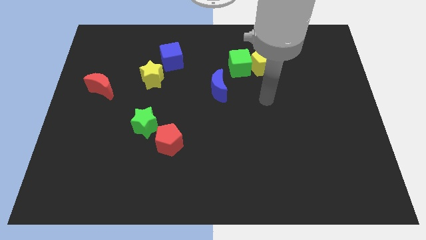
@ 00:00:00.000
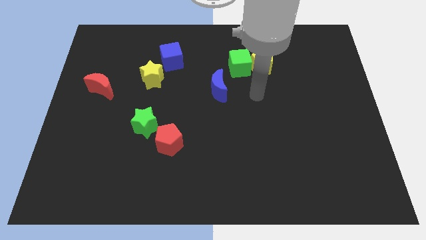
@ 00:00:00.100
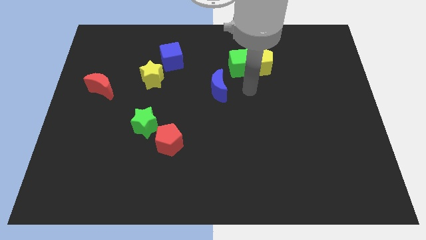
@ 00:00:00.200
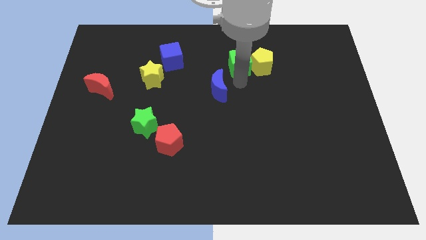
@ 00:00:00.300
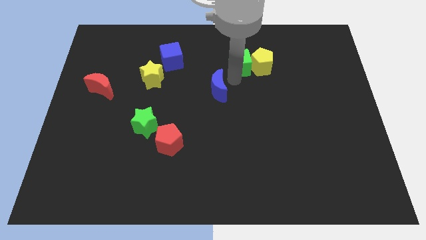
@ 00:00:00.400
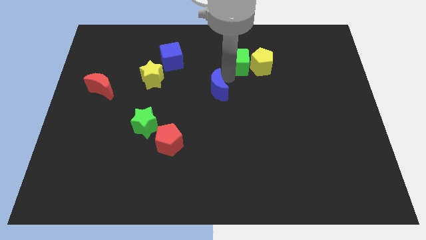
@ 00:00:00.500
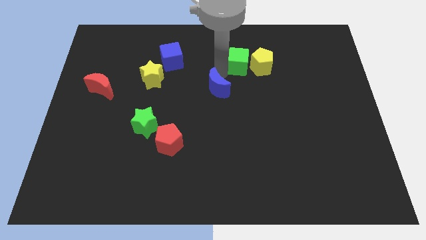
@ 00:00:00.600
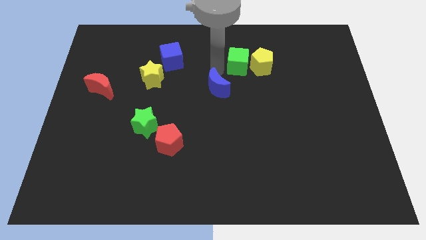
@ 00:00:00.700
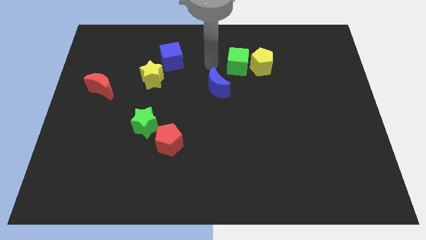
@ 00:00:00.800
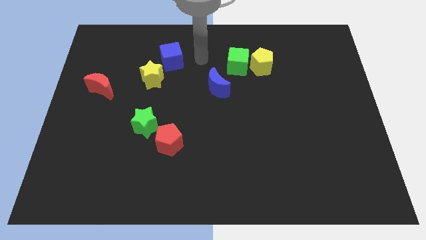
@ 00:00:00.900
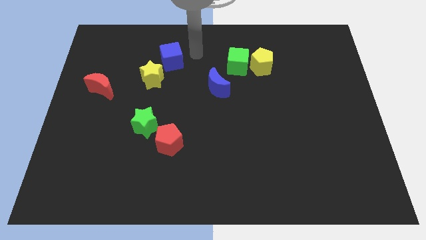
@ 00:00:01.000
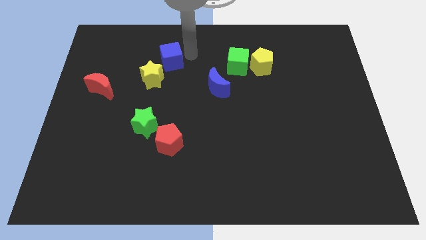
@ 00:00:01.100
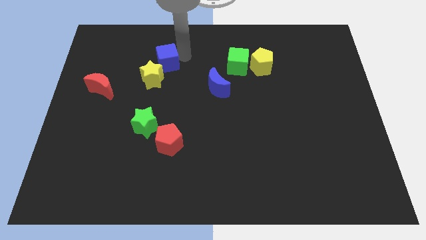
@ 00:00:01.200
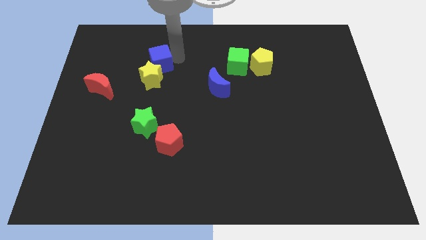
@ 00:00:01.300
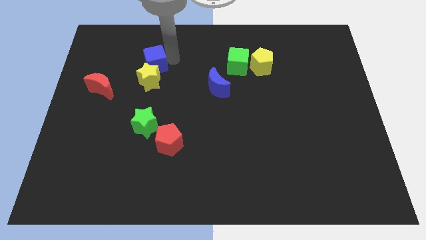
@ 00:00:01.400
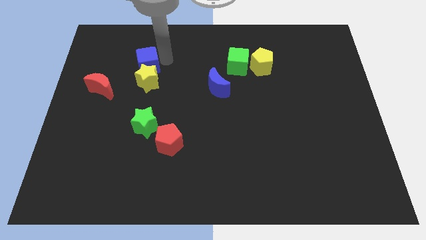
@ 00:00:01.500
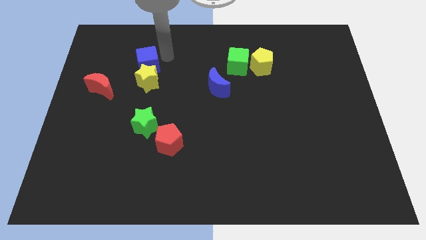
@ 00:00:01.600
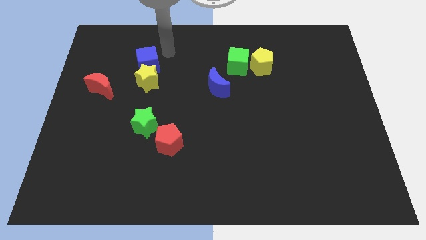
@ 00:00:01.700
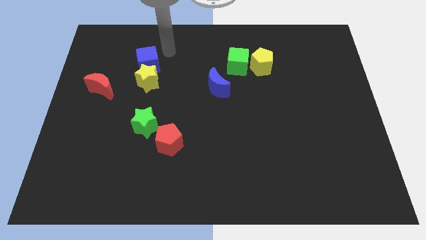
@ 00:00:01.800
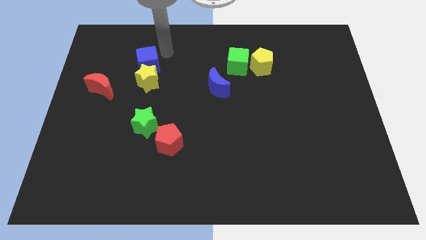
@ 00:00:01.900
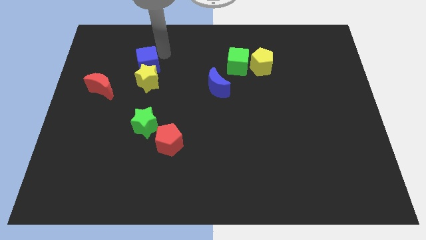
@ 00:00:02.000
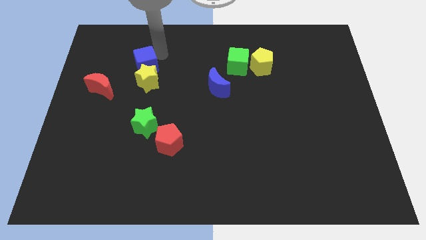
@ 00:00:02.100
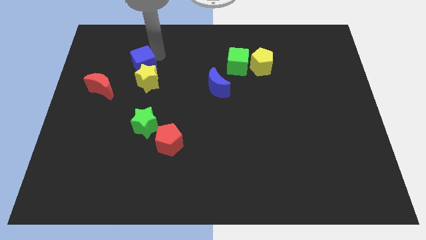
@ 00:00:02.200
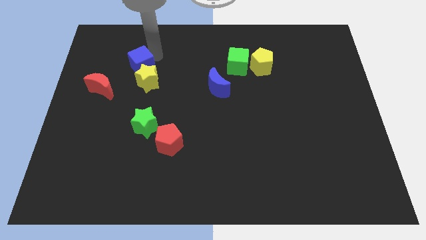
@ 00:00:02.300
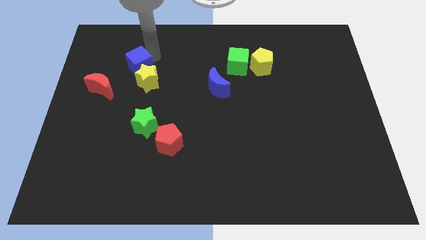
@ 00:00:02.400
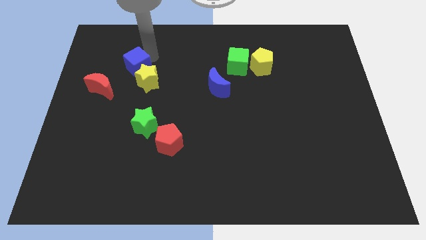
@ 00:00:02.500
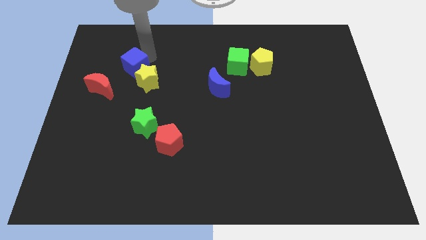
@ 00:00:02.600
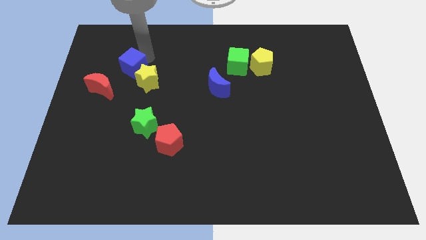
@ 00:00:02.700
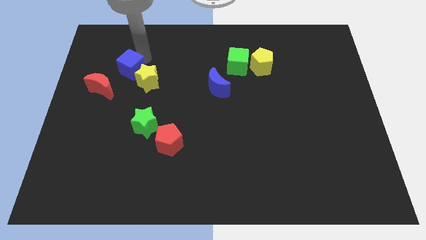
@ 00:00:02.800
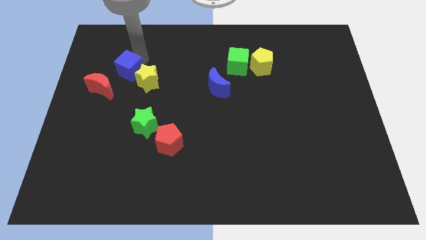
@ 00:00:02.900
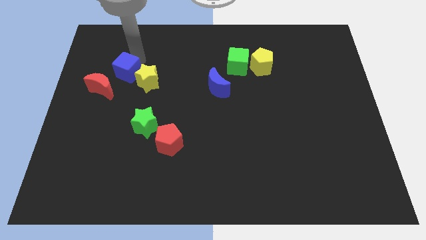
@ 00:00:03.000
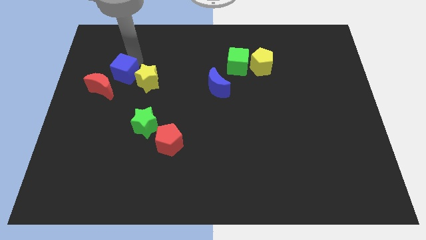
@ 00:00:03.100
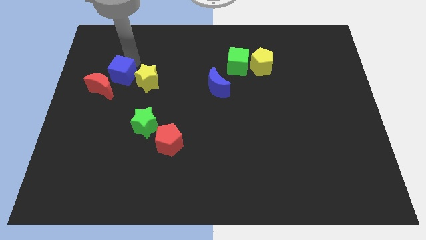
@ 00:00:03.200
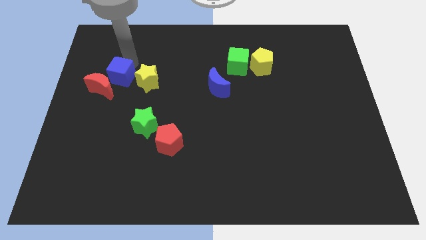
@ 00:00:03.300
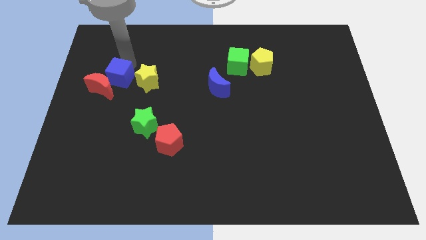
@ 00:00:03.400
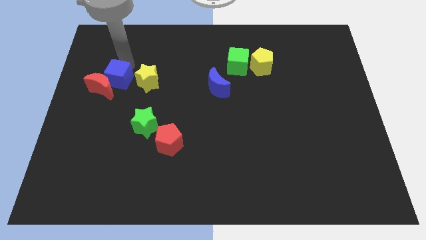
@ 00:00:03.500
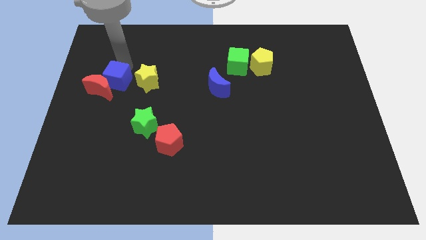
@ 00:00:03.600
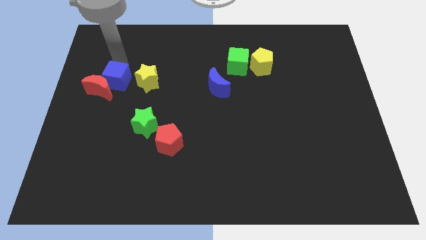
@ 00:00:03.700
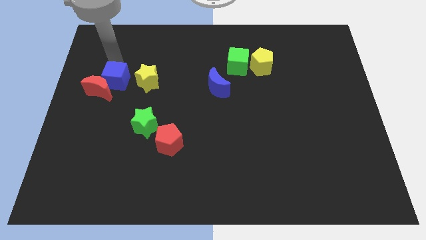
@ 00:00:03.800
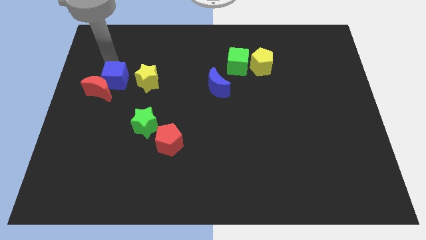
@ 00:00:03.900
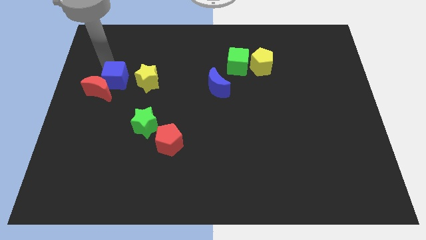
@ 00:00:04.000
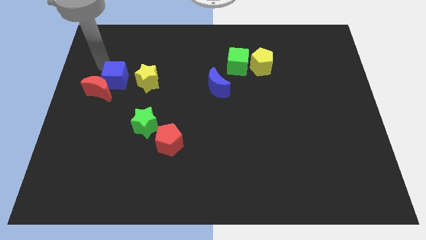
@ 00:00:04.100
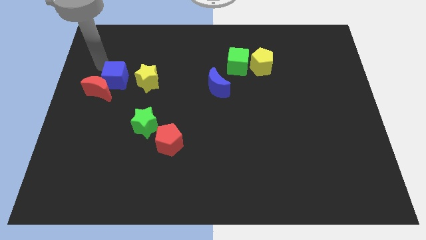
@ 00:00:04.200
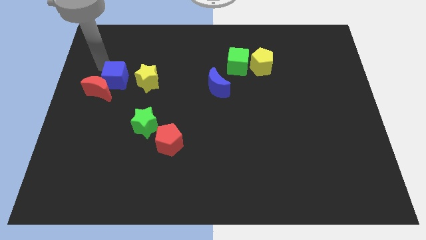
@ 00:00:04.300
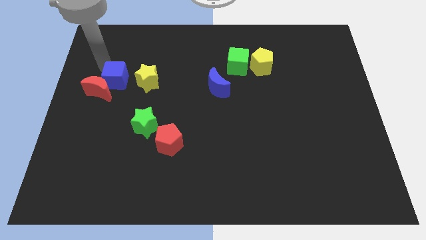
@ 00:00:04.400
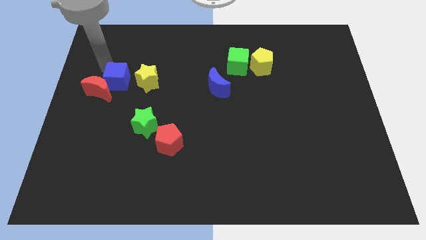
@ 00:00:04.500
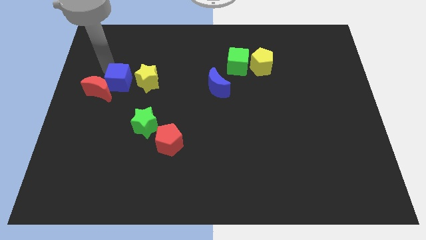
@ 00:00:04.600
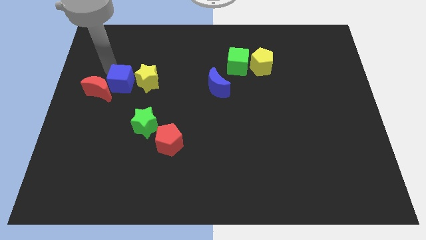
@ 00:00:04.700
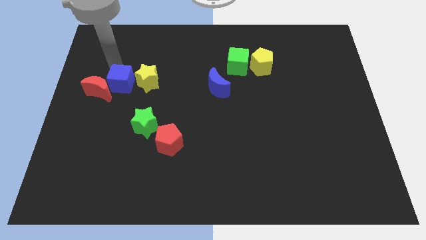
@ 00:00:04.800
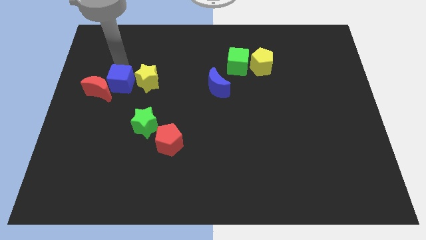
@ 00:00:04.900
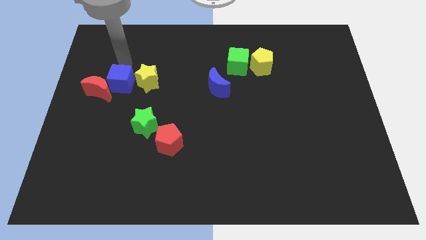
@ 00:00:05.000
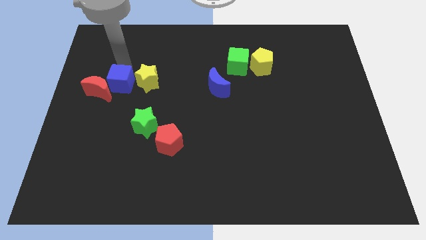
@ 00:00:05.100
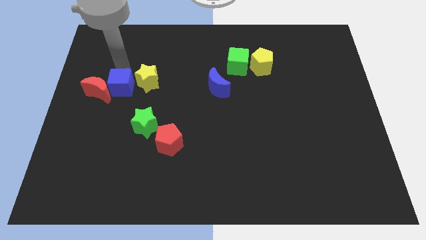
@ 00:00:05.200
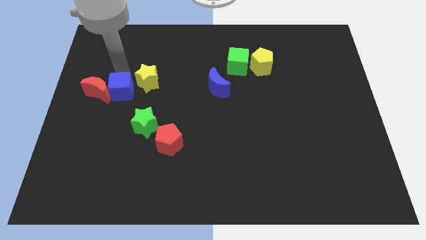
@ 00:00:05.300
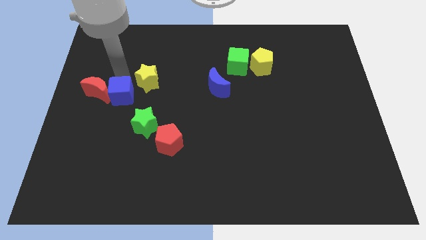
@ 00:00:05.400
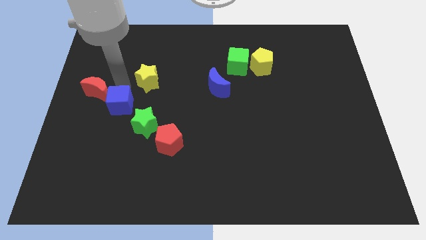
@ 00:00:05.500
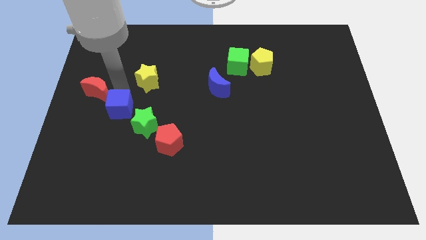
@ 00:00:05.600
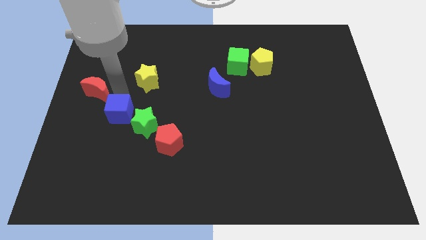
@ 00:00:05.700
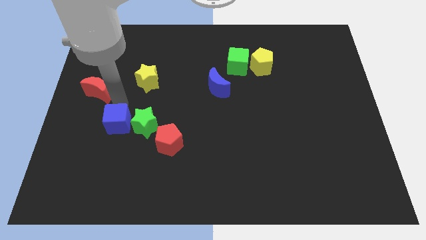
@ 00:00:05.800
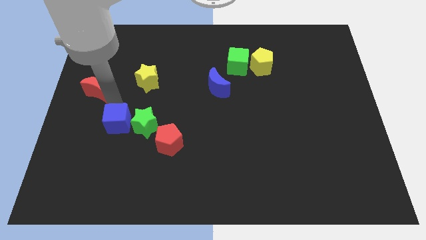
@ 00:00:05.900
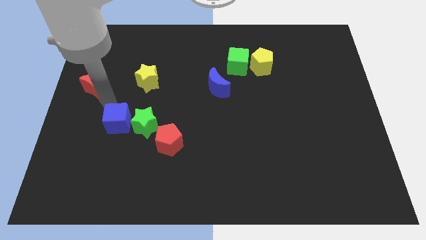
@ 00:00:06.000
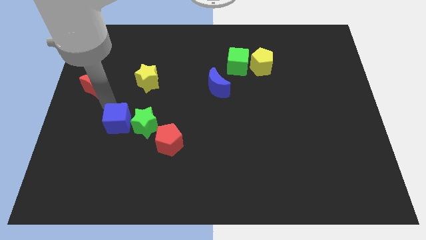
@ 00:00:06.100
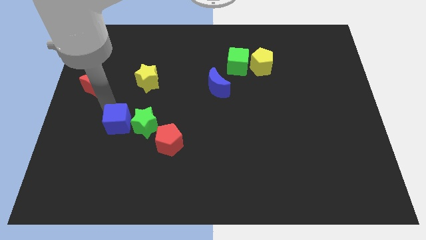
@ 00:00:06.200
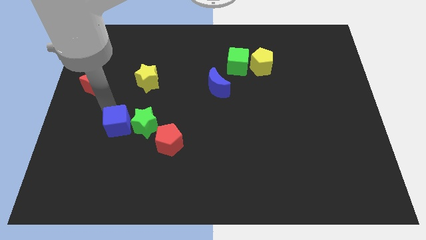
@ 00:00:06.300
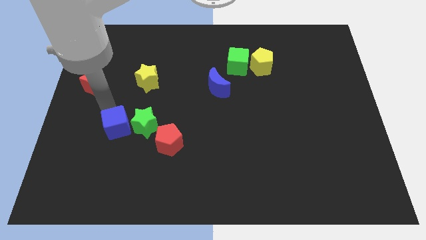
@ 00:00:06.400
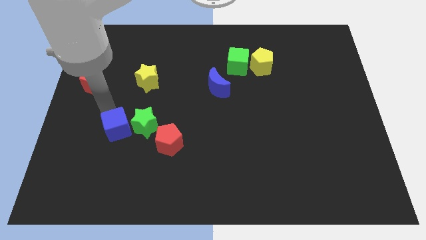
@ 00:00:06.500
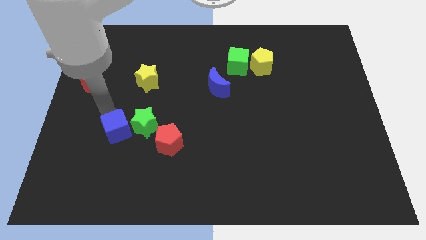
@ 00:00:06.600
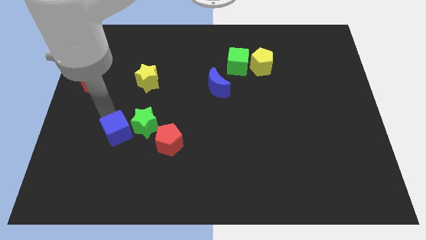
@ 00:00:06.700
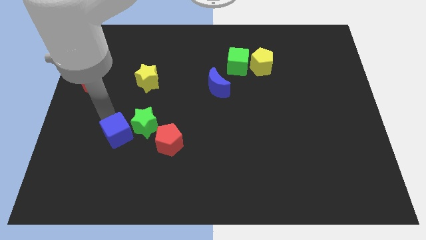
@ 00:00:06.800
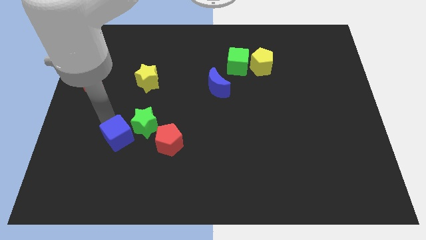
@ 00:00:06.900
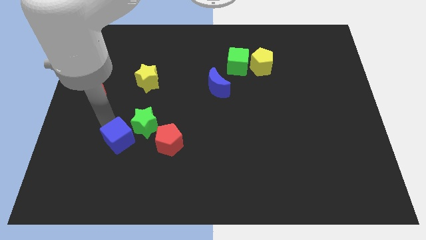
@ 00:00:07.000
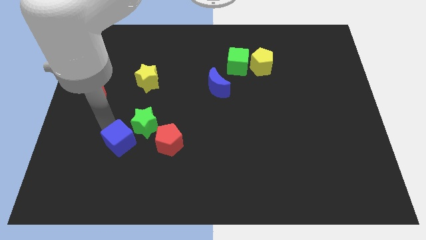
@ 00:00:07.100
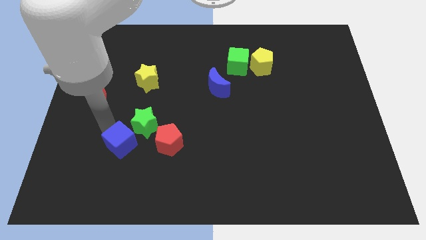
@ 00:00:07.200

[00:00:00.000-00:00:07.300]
put the blue cube below the green star

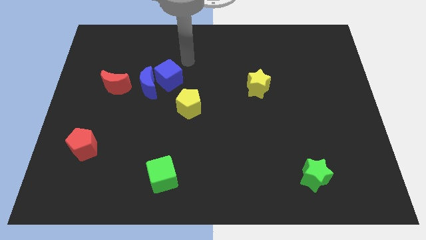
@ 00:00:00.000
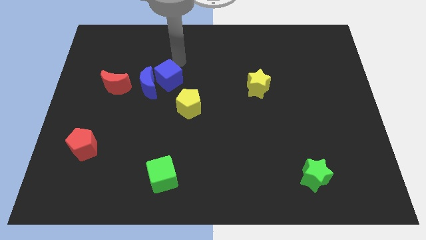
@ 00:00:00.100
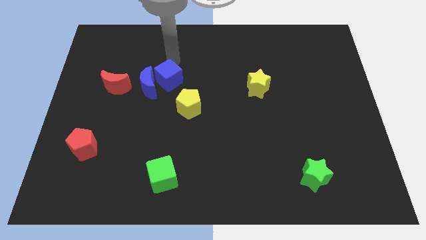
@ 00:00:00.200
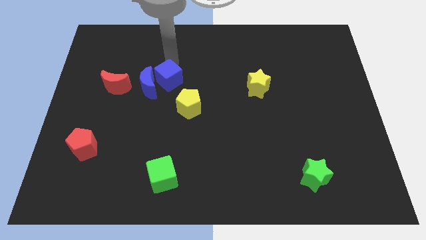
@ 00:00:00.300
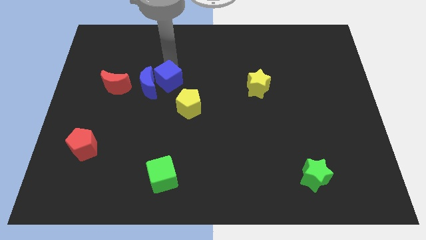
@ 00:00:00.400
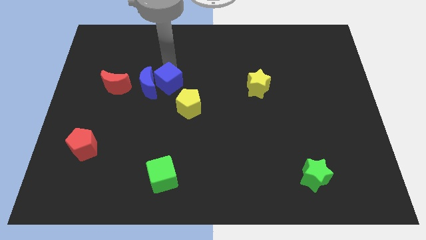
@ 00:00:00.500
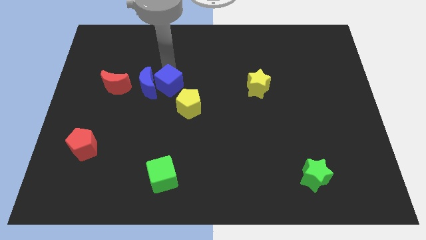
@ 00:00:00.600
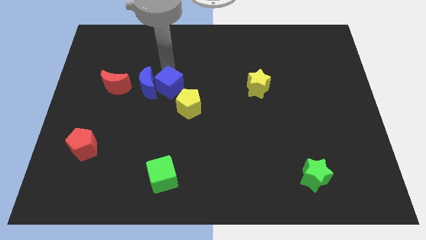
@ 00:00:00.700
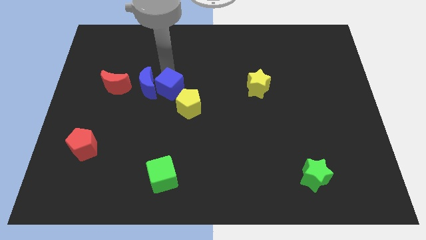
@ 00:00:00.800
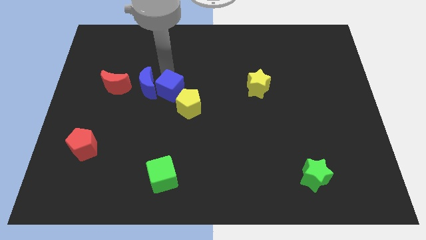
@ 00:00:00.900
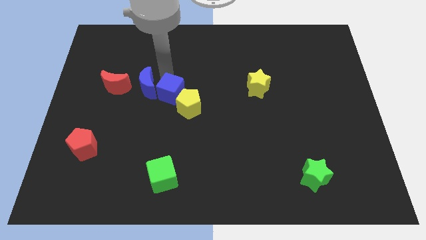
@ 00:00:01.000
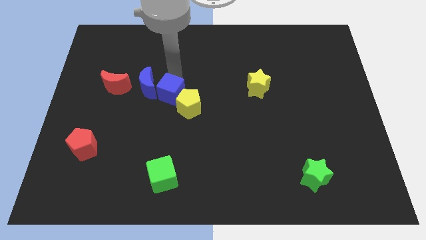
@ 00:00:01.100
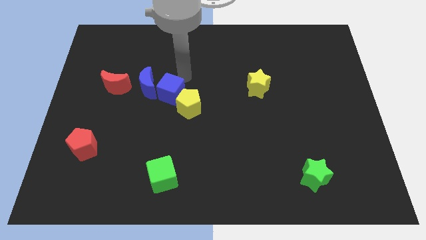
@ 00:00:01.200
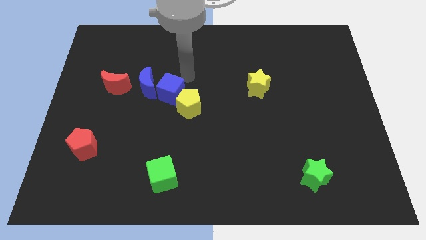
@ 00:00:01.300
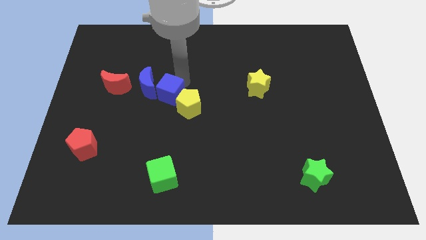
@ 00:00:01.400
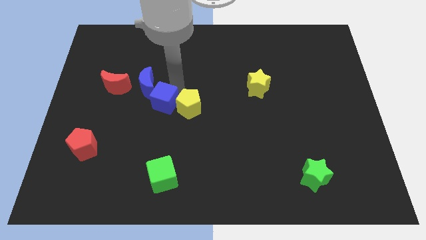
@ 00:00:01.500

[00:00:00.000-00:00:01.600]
move the blue cube below the blue moon
